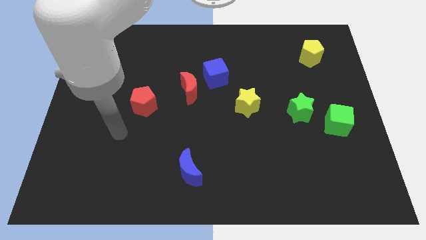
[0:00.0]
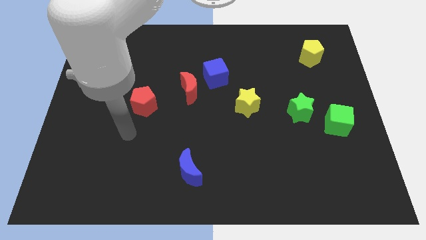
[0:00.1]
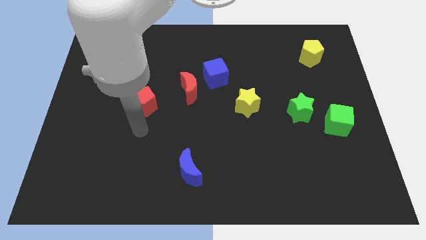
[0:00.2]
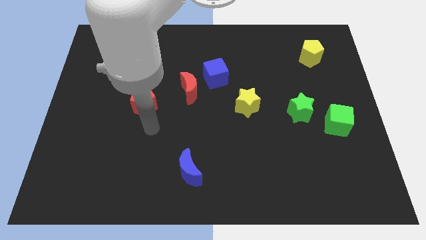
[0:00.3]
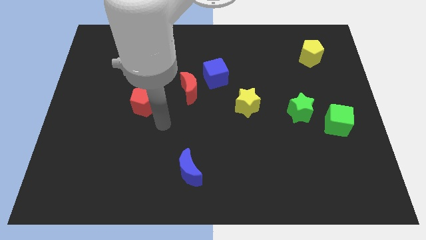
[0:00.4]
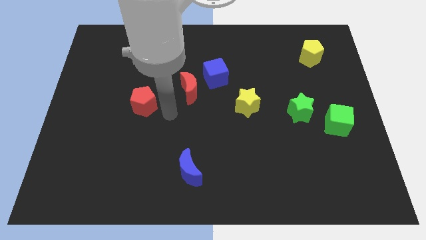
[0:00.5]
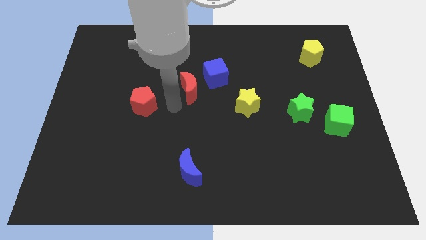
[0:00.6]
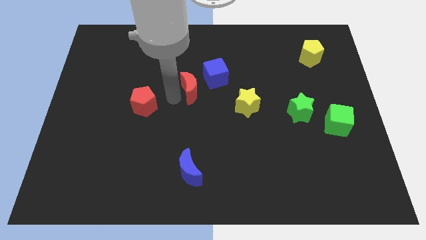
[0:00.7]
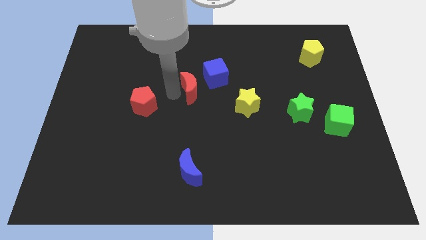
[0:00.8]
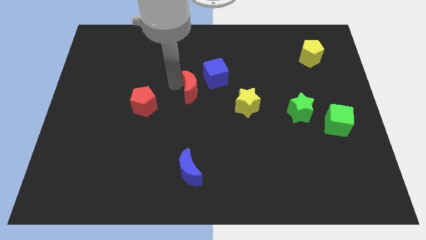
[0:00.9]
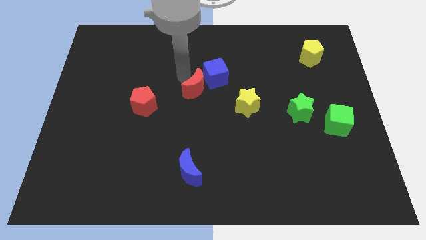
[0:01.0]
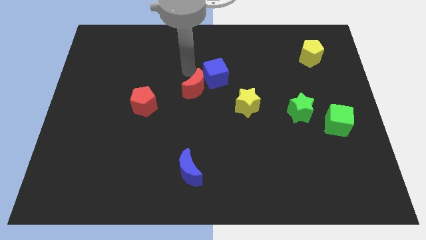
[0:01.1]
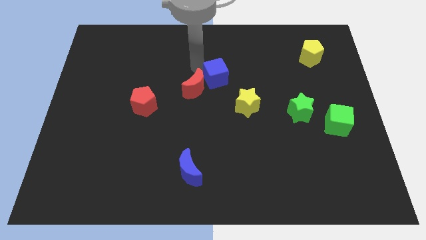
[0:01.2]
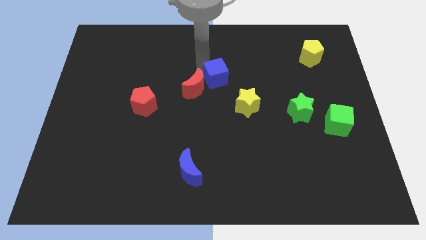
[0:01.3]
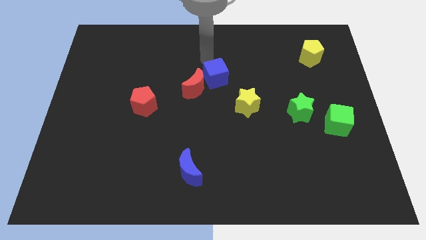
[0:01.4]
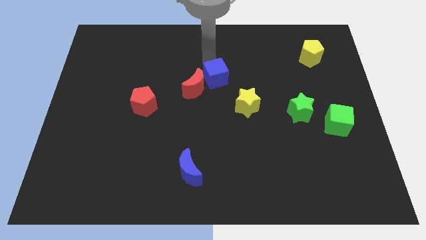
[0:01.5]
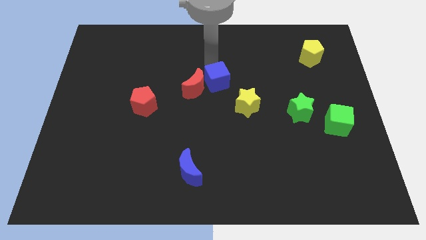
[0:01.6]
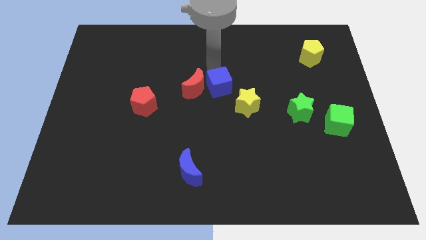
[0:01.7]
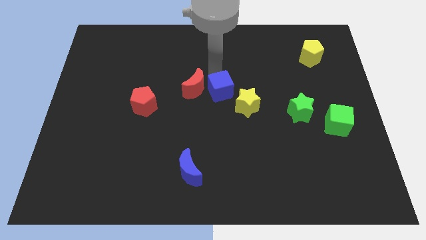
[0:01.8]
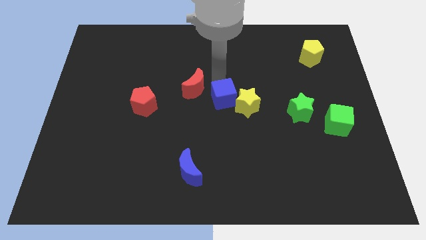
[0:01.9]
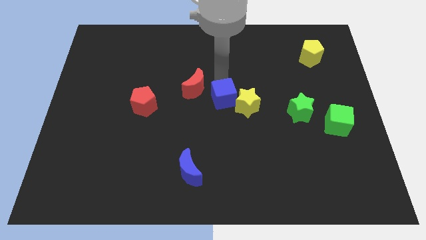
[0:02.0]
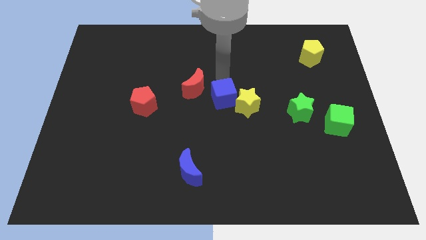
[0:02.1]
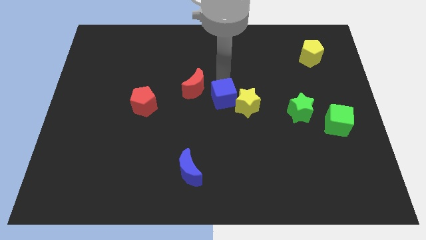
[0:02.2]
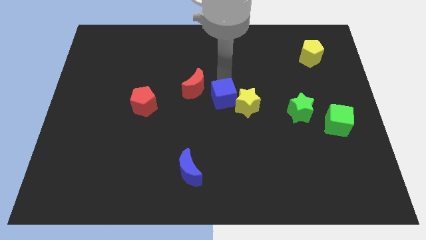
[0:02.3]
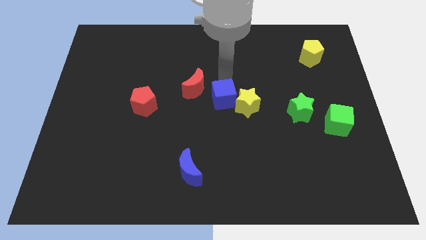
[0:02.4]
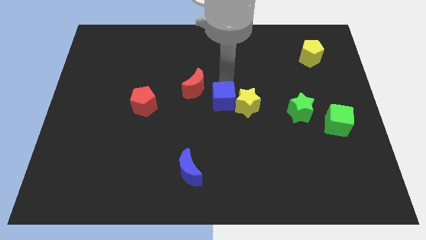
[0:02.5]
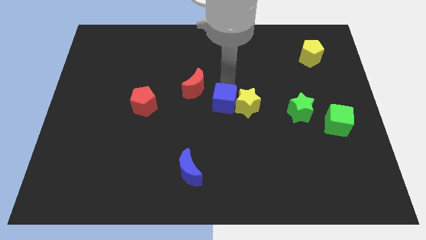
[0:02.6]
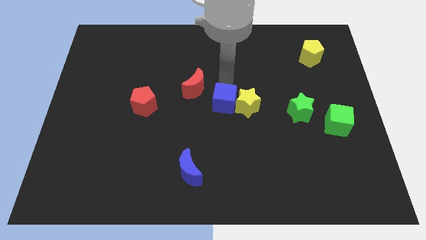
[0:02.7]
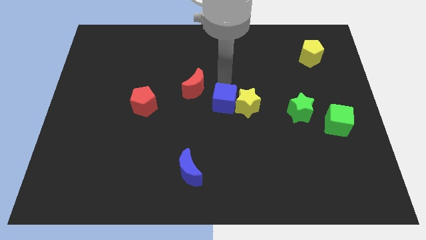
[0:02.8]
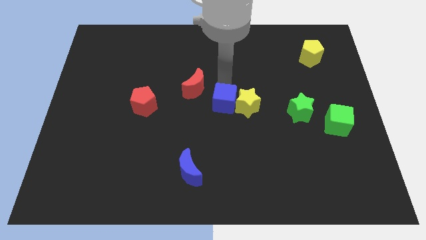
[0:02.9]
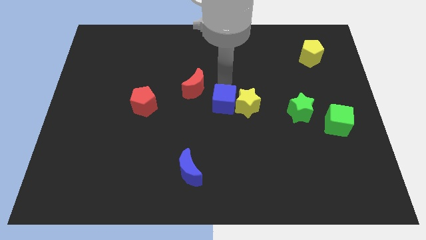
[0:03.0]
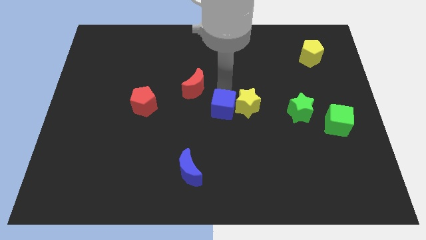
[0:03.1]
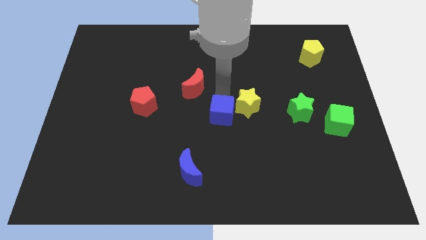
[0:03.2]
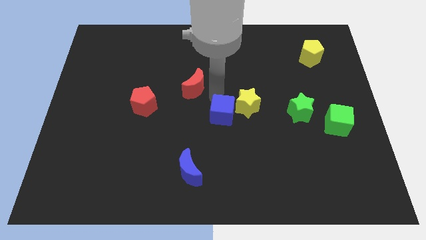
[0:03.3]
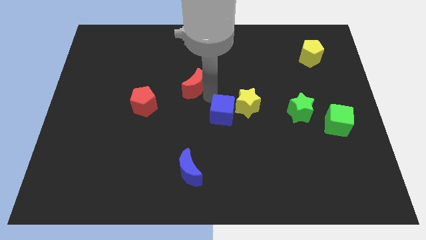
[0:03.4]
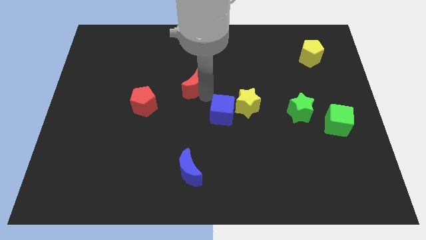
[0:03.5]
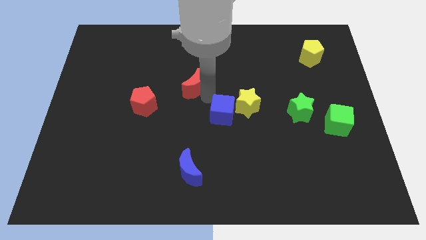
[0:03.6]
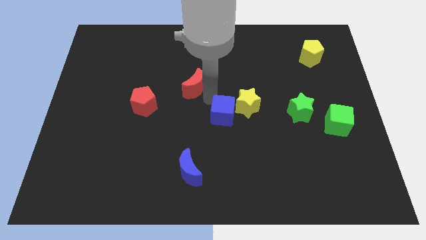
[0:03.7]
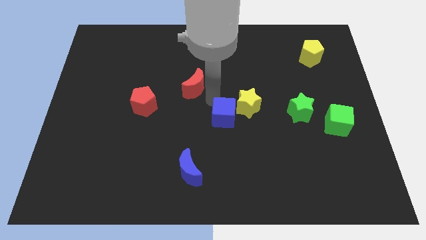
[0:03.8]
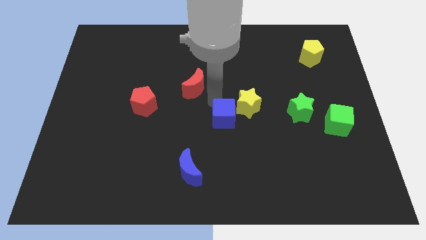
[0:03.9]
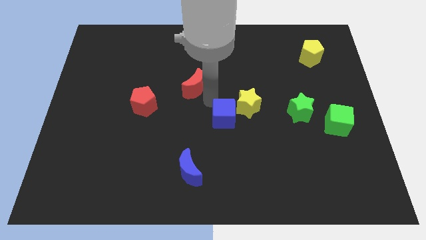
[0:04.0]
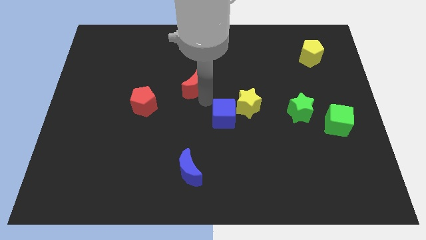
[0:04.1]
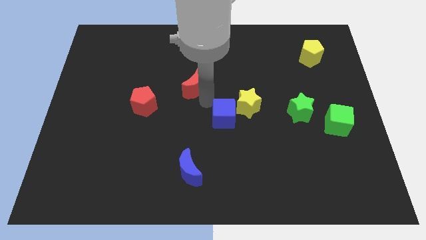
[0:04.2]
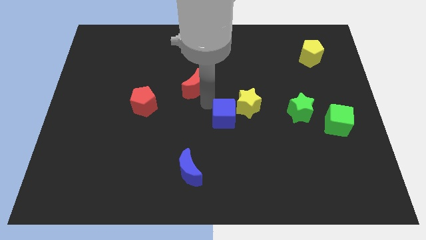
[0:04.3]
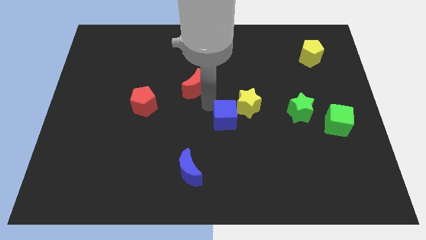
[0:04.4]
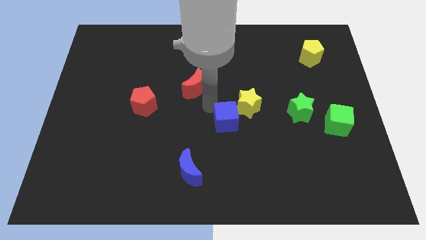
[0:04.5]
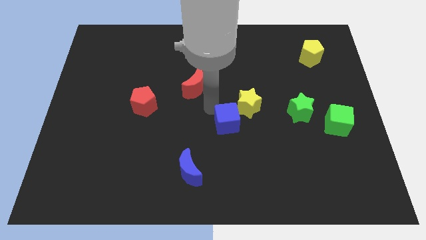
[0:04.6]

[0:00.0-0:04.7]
move the blue cube to the bottom of the yellow star

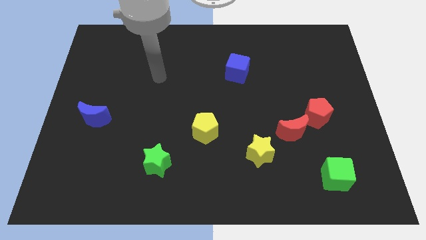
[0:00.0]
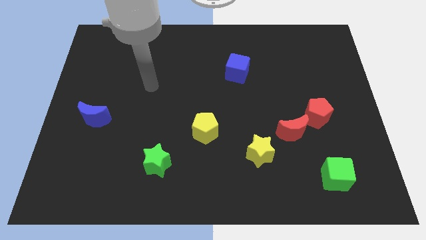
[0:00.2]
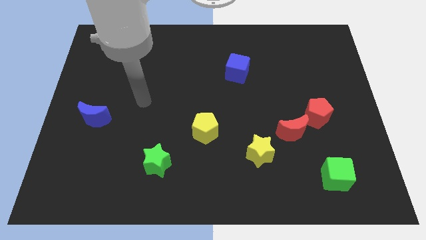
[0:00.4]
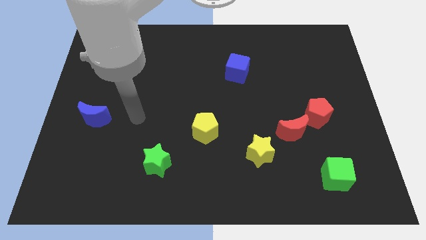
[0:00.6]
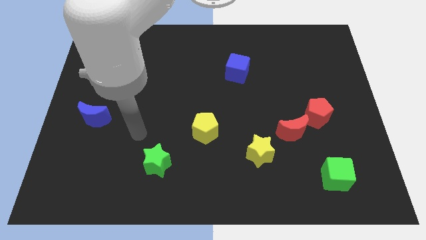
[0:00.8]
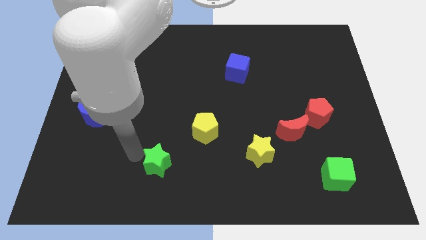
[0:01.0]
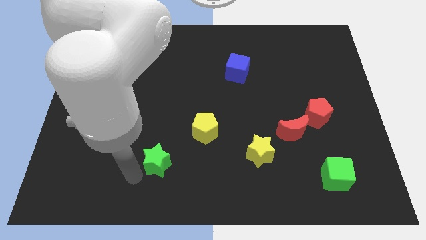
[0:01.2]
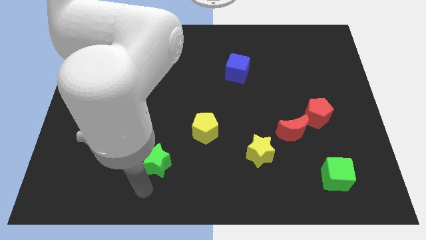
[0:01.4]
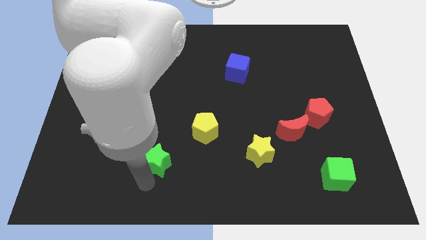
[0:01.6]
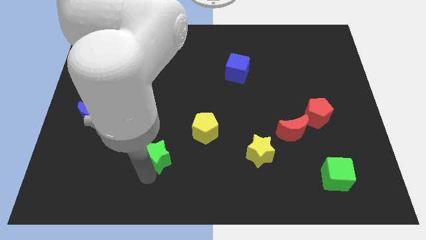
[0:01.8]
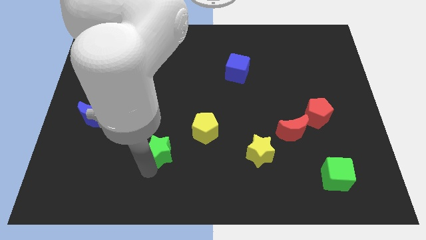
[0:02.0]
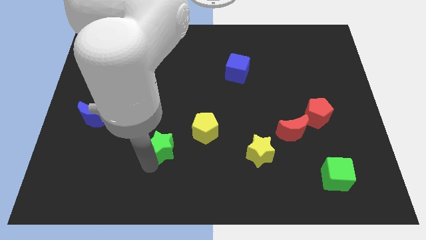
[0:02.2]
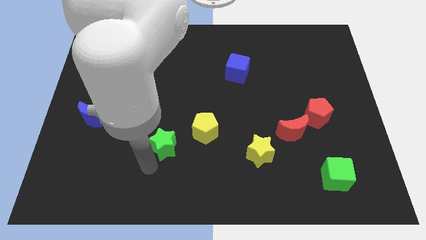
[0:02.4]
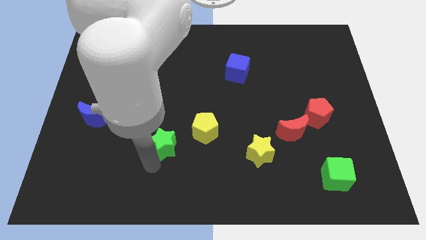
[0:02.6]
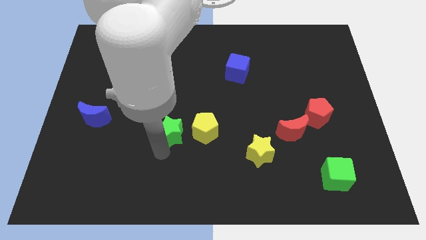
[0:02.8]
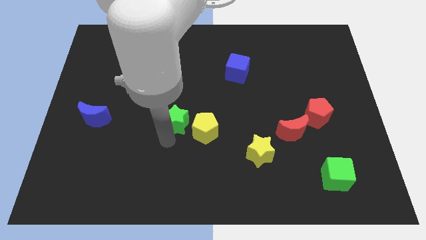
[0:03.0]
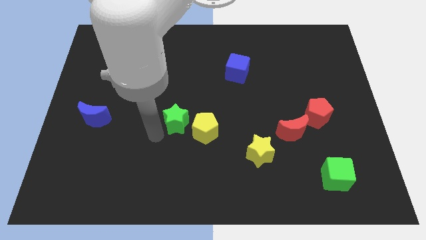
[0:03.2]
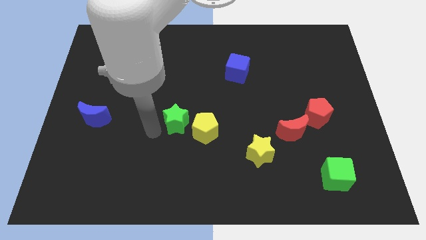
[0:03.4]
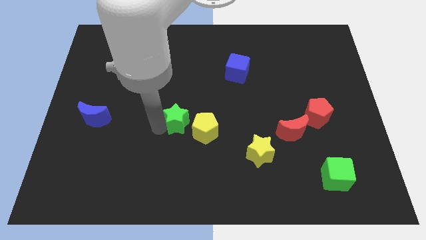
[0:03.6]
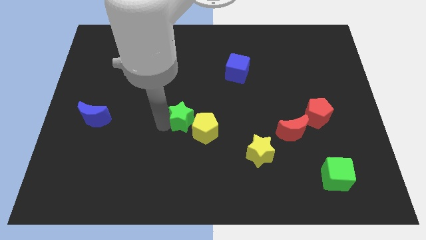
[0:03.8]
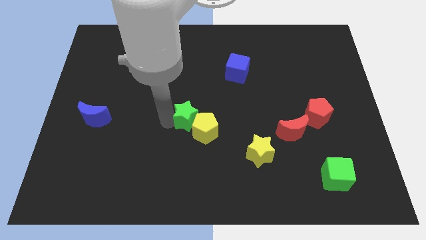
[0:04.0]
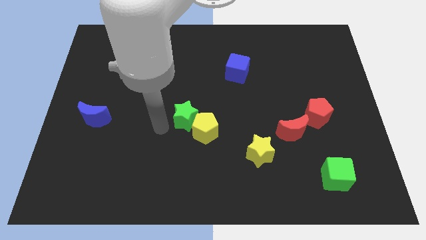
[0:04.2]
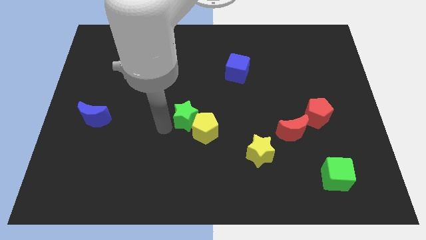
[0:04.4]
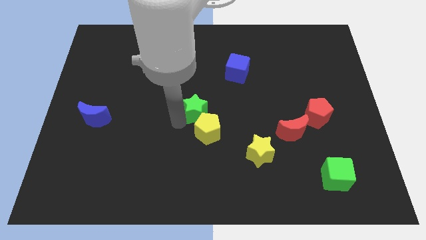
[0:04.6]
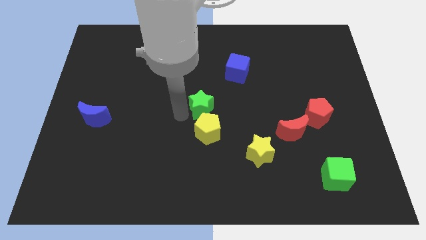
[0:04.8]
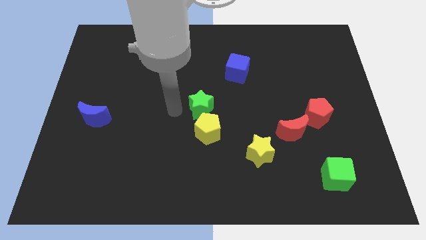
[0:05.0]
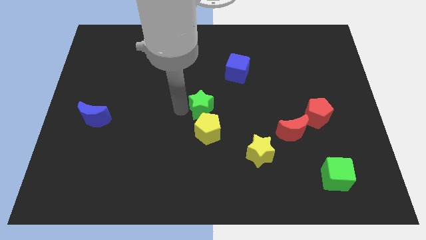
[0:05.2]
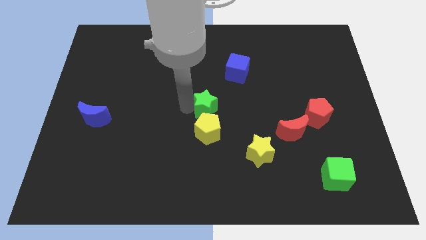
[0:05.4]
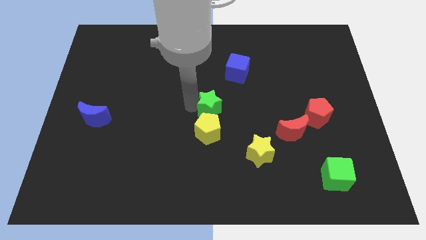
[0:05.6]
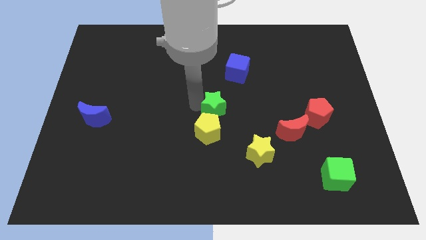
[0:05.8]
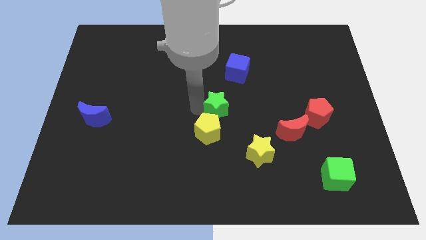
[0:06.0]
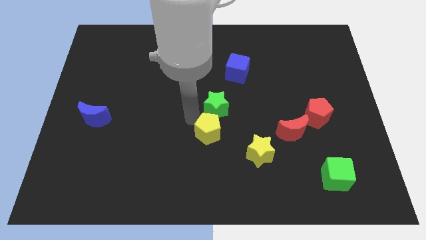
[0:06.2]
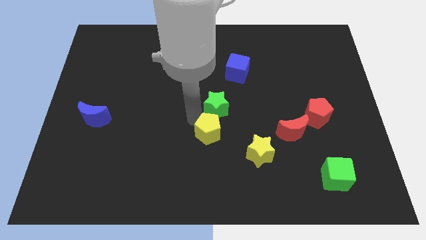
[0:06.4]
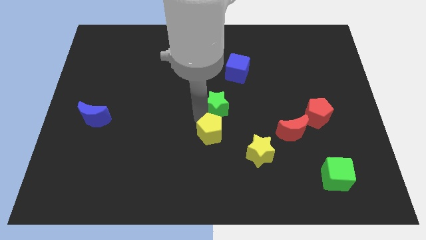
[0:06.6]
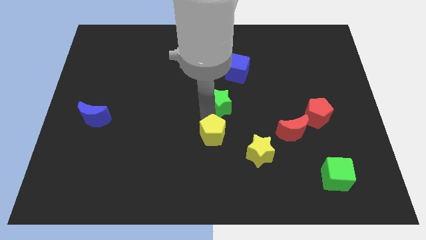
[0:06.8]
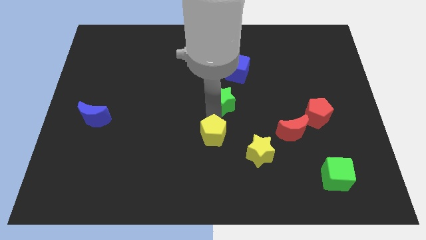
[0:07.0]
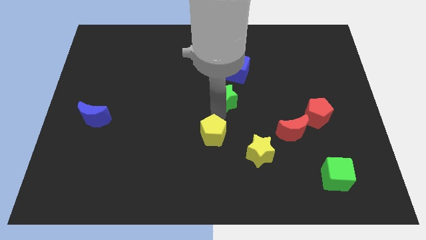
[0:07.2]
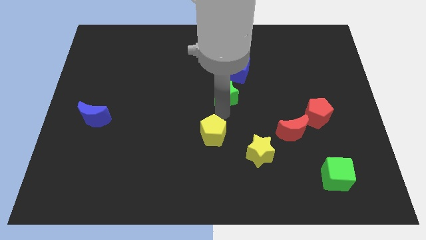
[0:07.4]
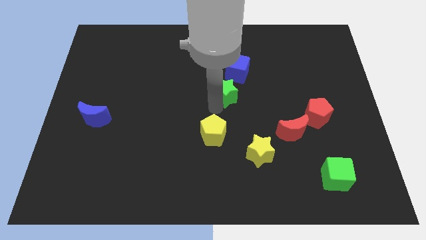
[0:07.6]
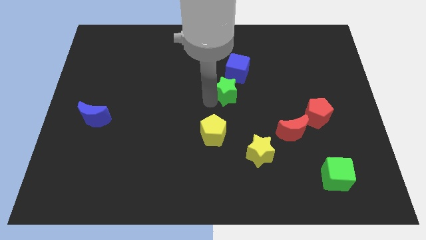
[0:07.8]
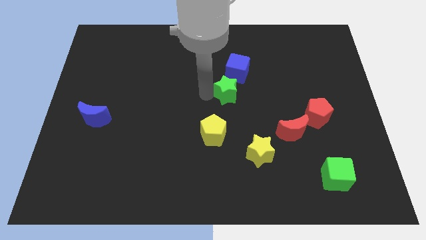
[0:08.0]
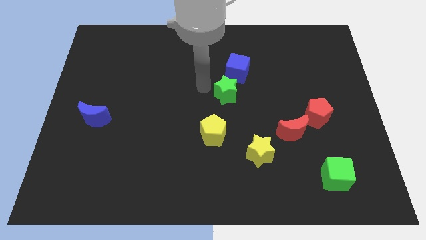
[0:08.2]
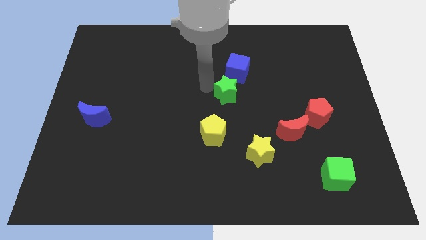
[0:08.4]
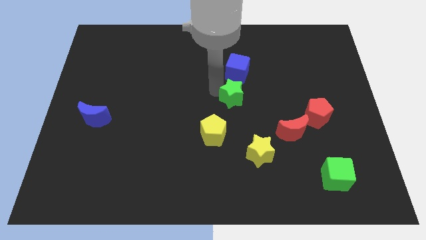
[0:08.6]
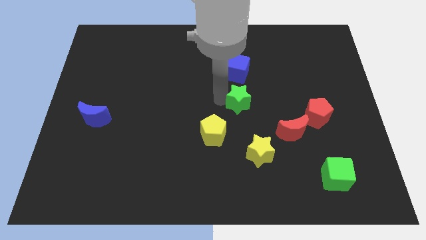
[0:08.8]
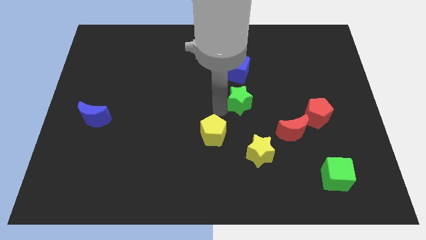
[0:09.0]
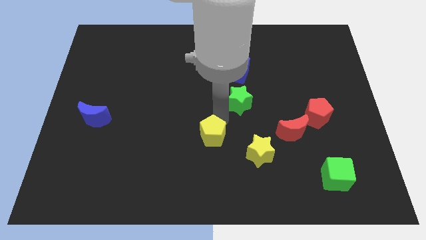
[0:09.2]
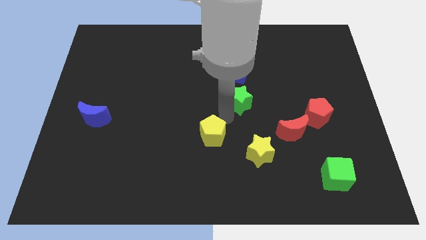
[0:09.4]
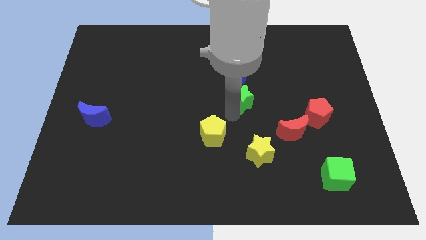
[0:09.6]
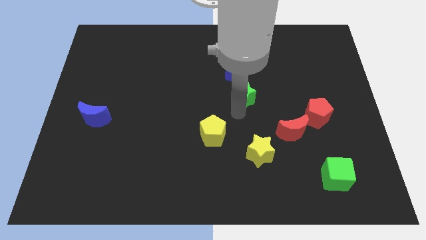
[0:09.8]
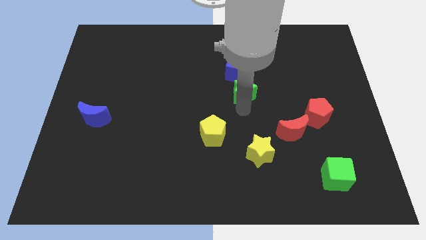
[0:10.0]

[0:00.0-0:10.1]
push the green star to the bottom right side of the blue cube
